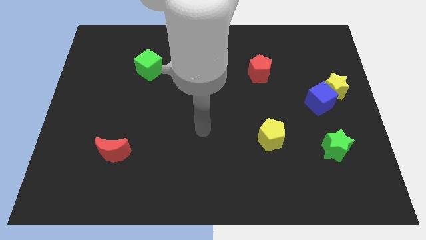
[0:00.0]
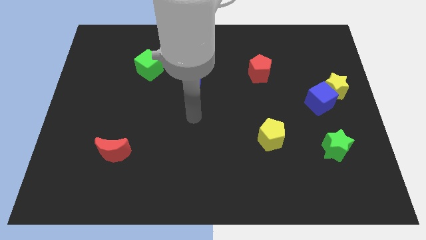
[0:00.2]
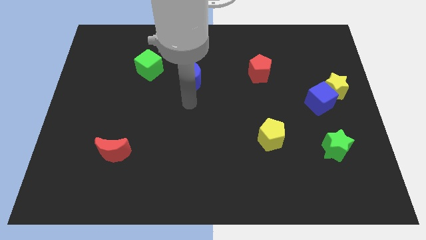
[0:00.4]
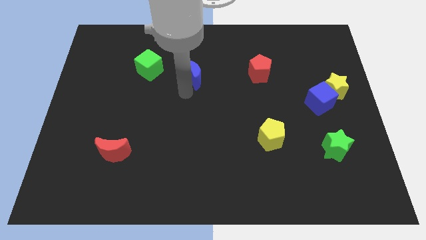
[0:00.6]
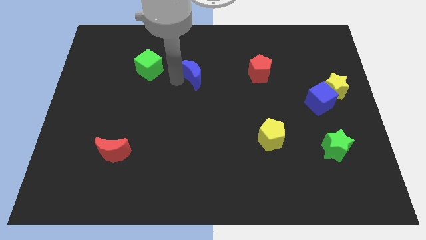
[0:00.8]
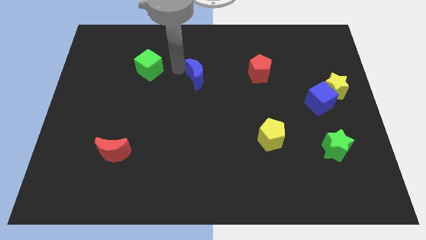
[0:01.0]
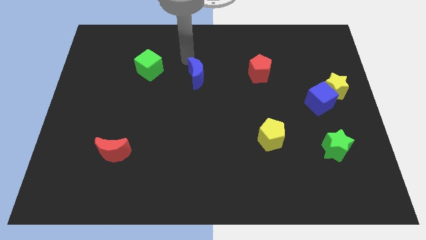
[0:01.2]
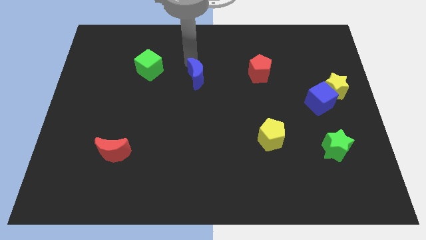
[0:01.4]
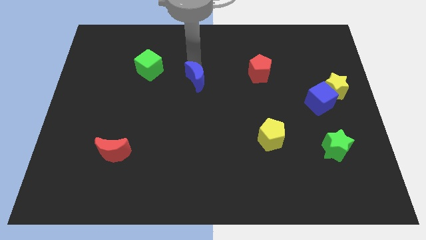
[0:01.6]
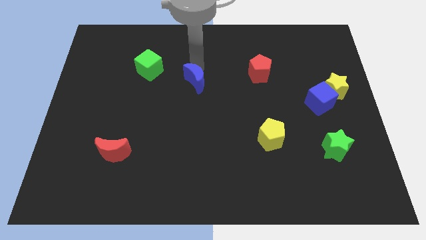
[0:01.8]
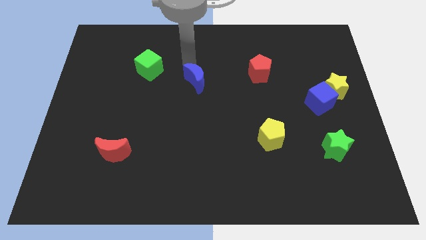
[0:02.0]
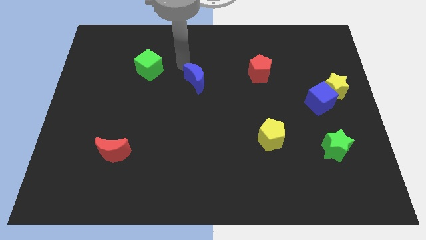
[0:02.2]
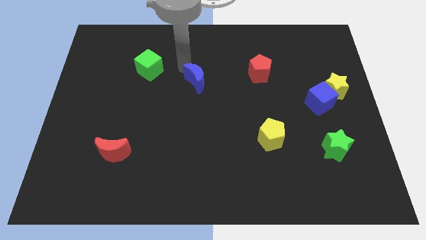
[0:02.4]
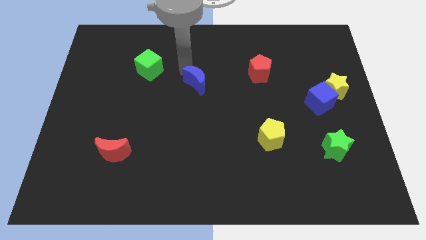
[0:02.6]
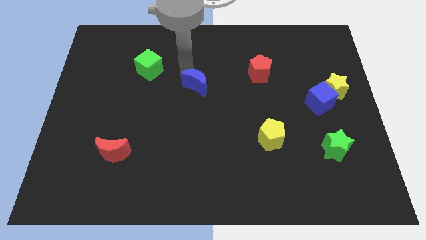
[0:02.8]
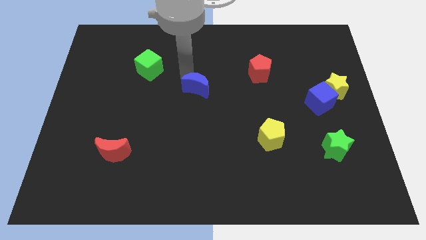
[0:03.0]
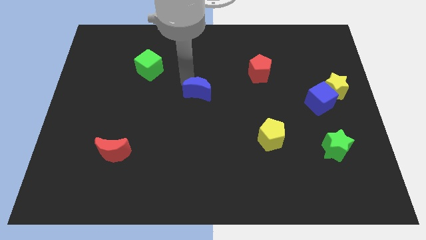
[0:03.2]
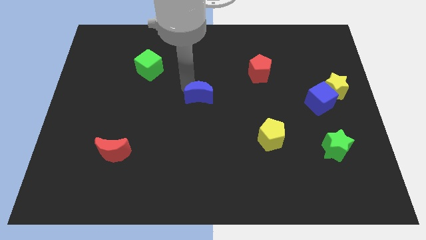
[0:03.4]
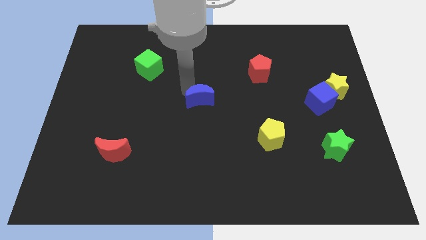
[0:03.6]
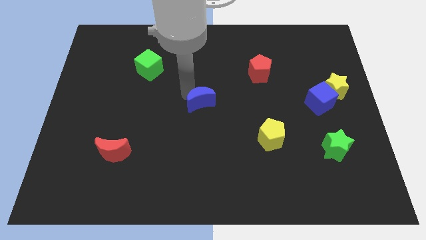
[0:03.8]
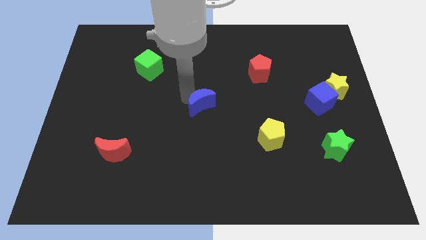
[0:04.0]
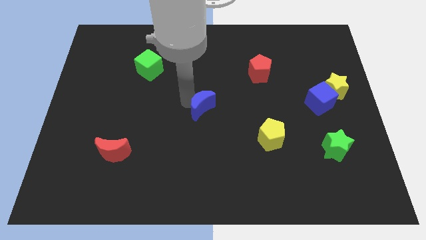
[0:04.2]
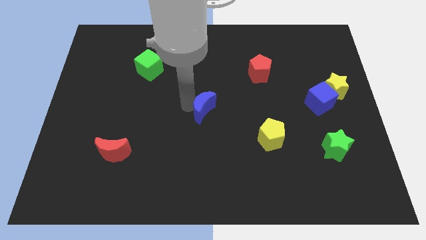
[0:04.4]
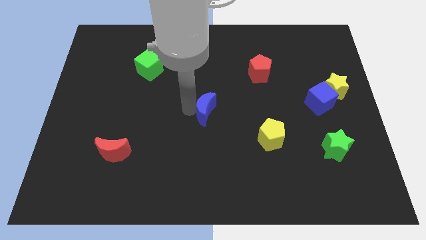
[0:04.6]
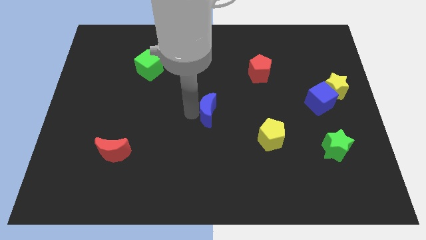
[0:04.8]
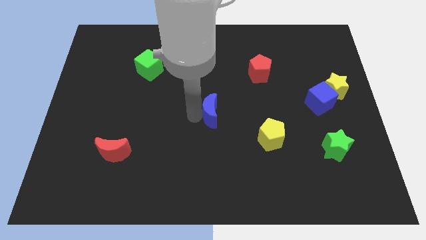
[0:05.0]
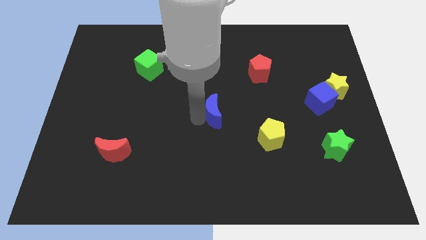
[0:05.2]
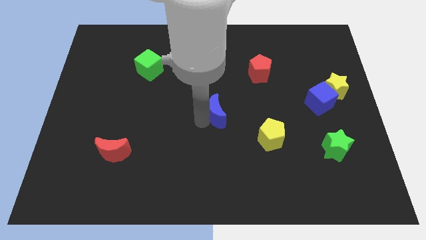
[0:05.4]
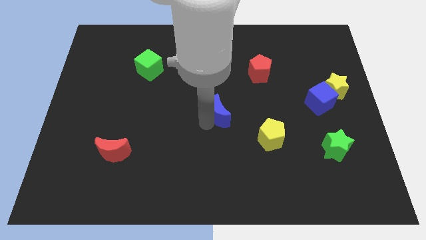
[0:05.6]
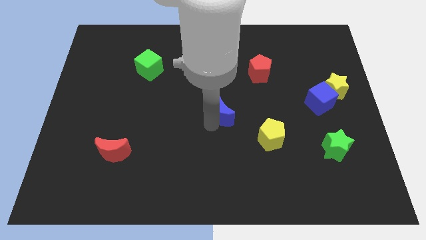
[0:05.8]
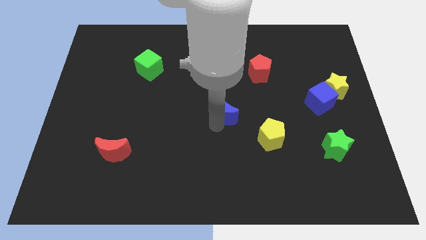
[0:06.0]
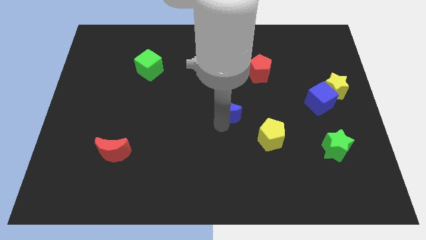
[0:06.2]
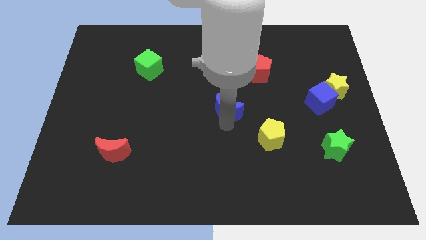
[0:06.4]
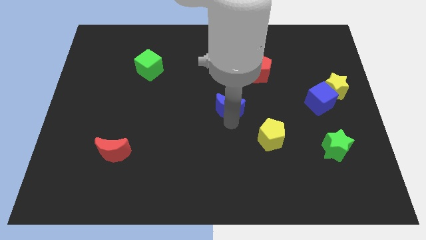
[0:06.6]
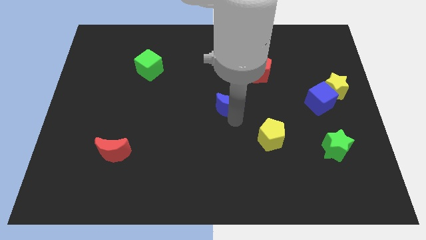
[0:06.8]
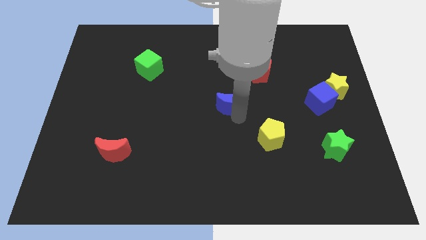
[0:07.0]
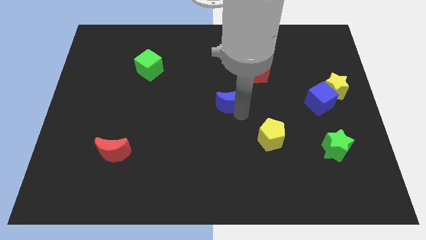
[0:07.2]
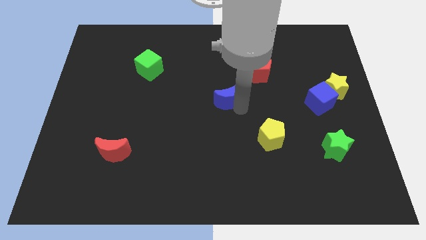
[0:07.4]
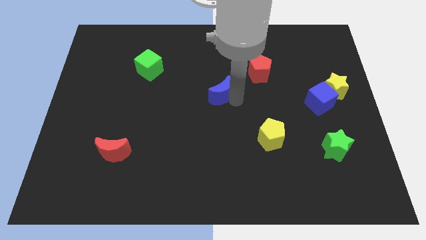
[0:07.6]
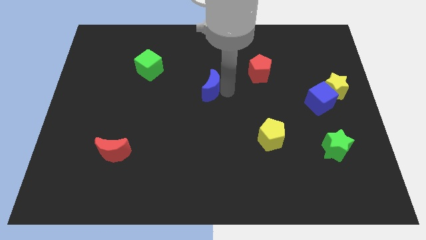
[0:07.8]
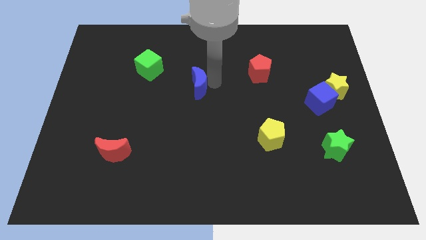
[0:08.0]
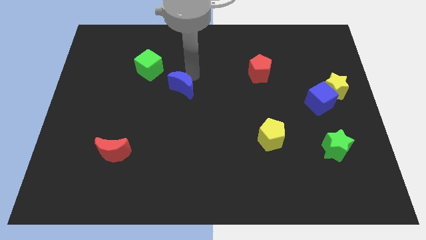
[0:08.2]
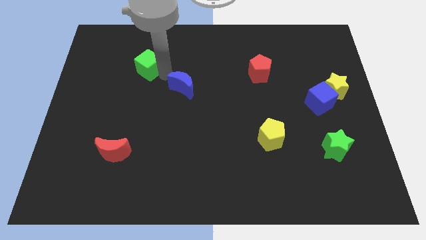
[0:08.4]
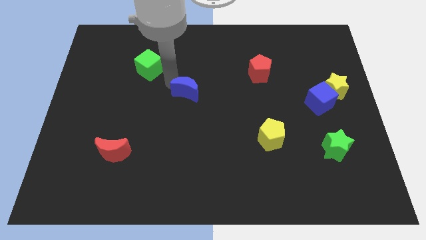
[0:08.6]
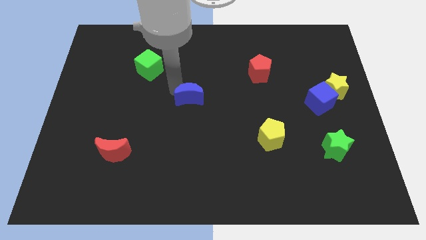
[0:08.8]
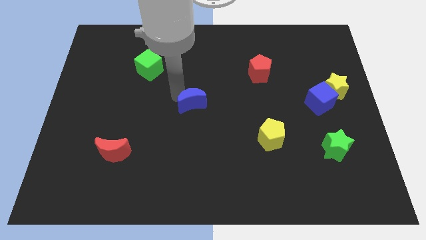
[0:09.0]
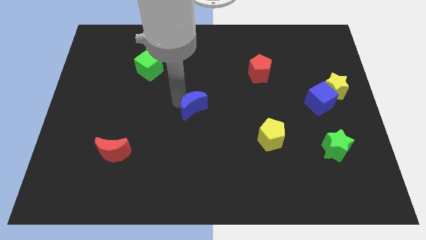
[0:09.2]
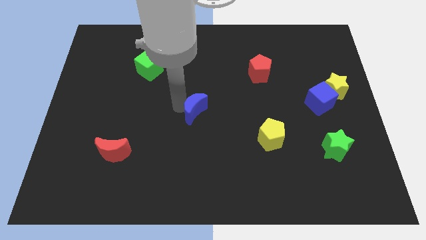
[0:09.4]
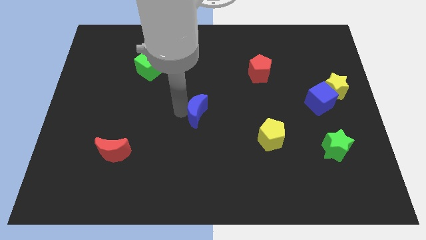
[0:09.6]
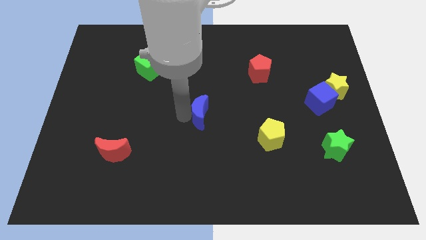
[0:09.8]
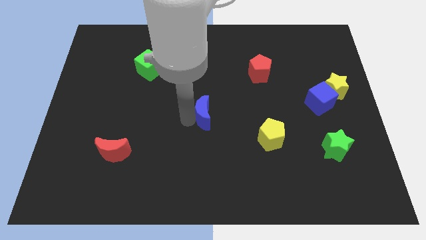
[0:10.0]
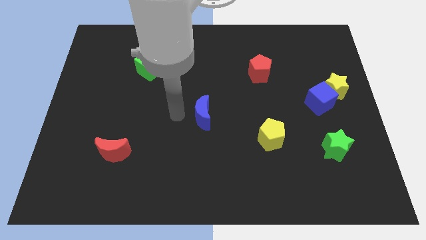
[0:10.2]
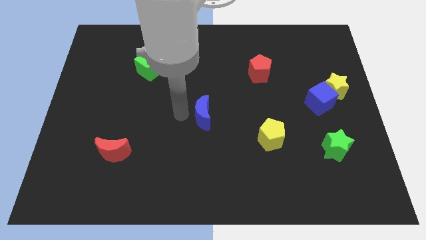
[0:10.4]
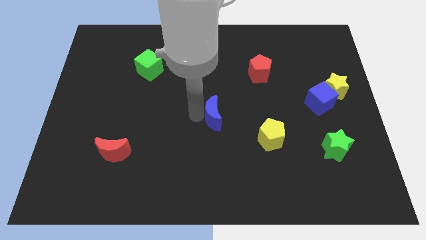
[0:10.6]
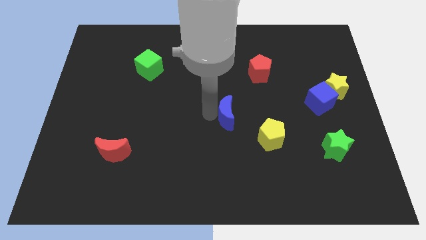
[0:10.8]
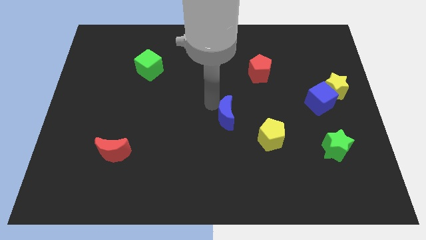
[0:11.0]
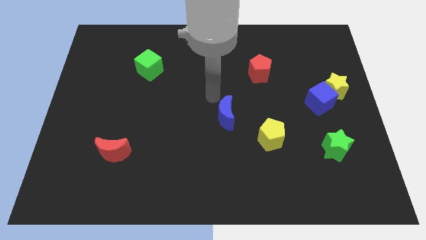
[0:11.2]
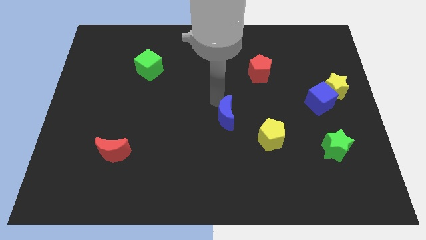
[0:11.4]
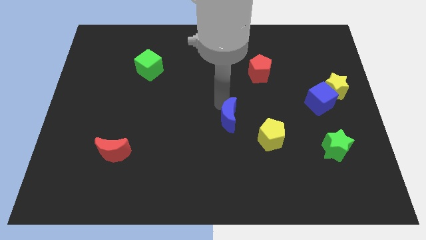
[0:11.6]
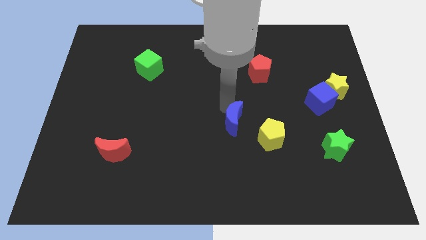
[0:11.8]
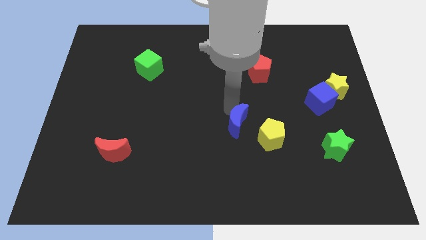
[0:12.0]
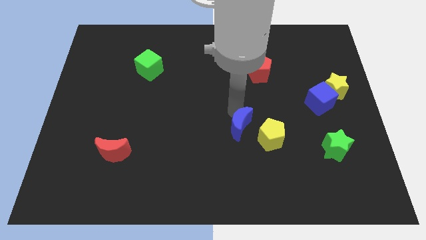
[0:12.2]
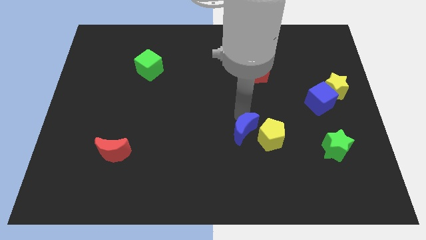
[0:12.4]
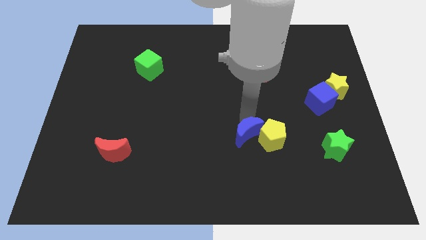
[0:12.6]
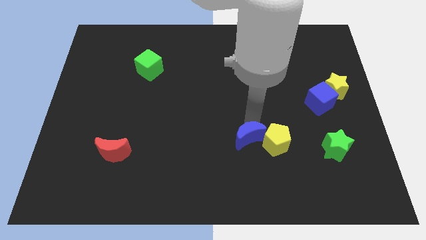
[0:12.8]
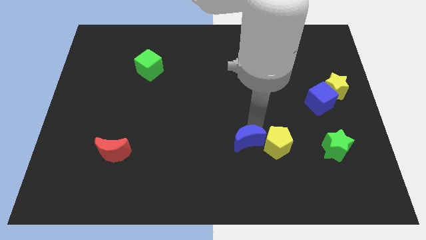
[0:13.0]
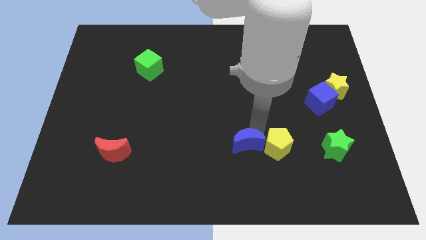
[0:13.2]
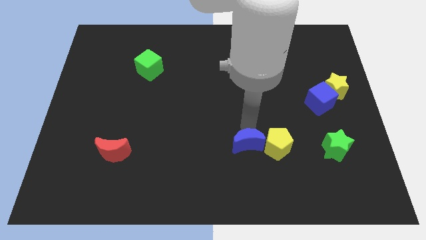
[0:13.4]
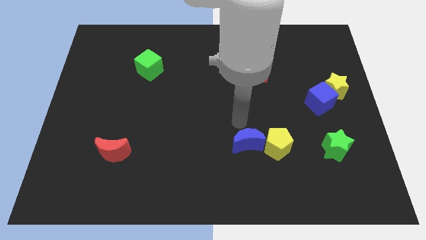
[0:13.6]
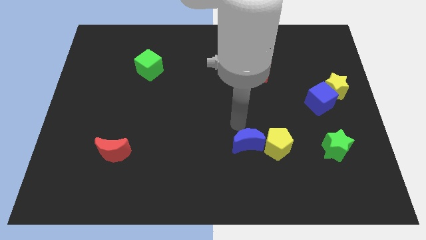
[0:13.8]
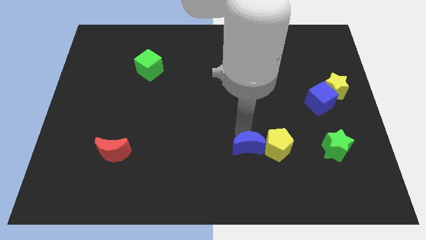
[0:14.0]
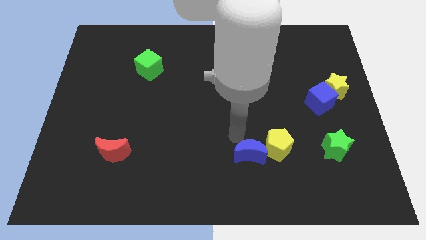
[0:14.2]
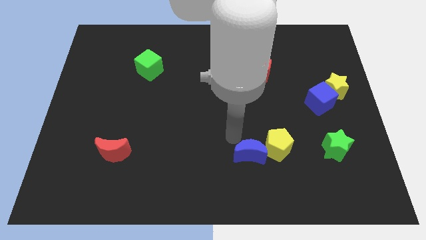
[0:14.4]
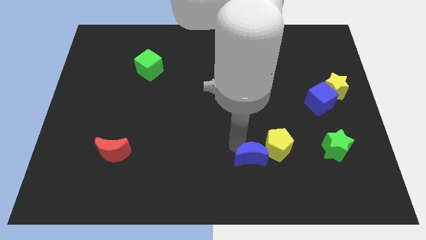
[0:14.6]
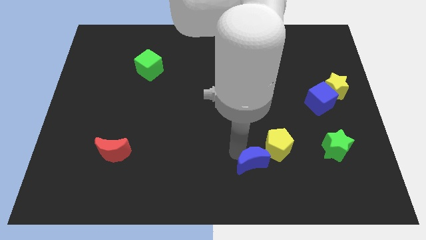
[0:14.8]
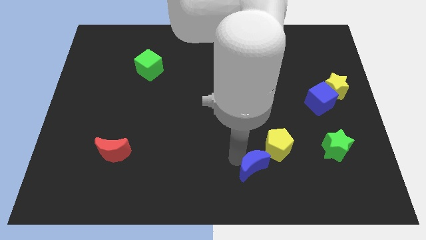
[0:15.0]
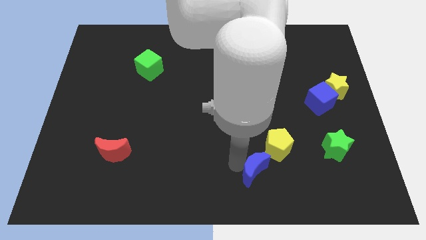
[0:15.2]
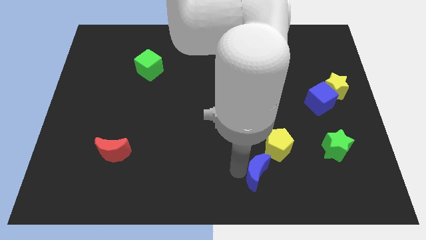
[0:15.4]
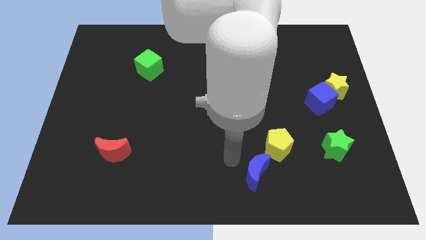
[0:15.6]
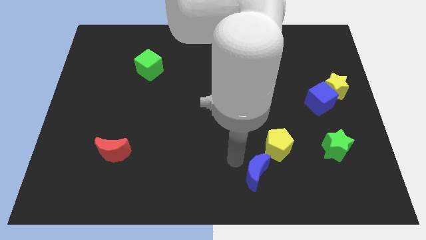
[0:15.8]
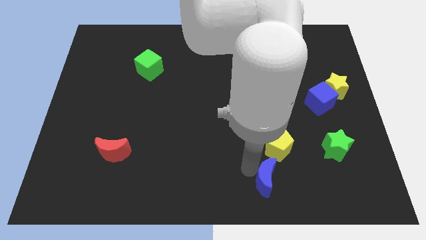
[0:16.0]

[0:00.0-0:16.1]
slide the blue moon to the bottom side of the yellow pentagon

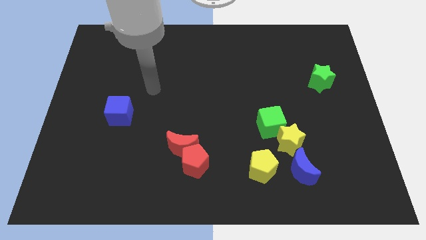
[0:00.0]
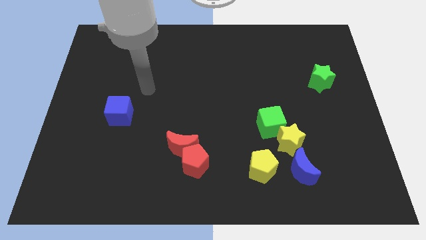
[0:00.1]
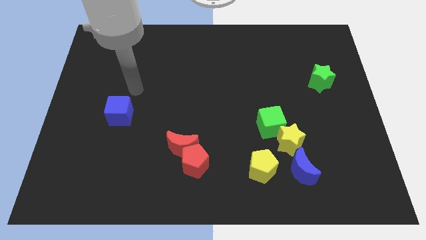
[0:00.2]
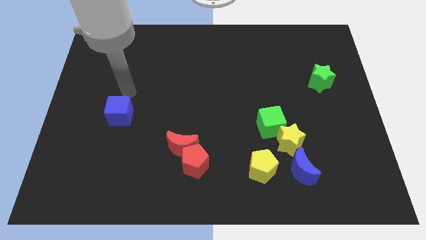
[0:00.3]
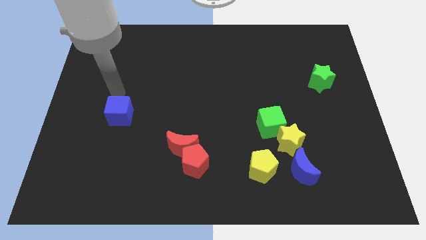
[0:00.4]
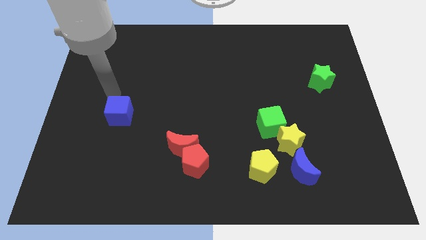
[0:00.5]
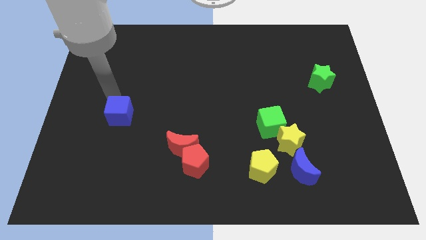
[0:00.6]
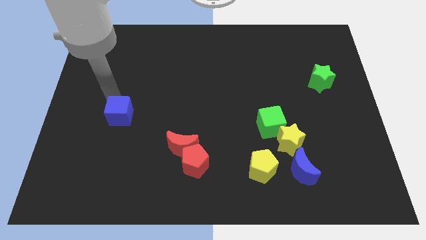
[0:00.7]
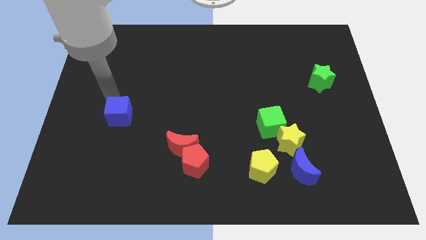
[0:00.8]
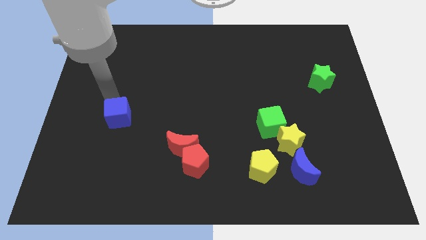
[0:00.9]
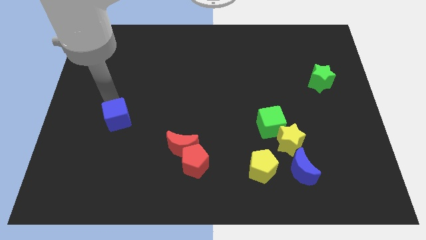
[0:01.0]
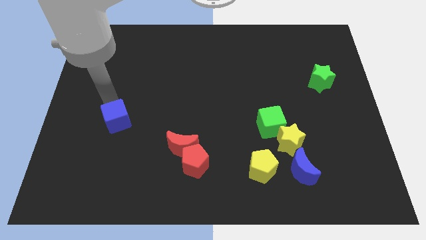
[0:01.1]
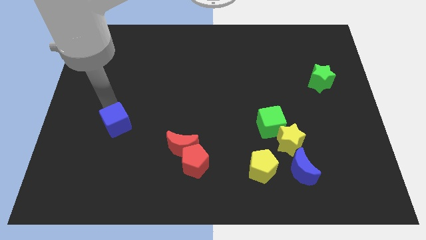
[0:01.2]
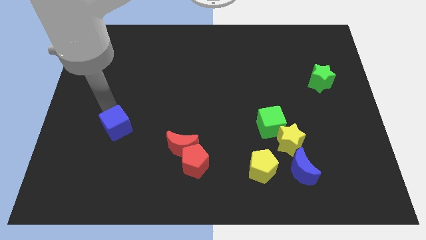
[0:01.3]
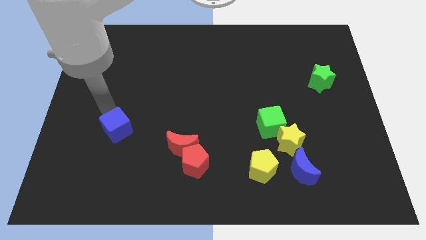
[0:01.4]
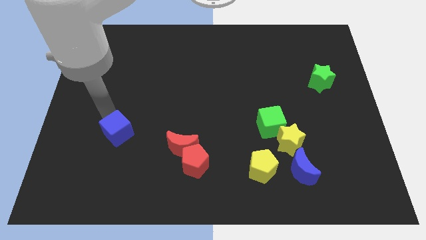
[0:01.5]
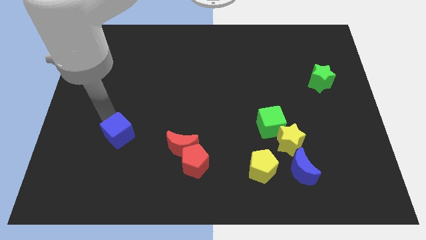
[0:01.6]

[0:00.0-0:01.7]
put the blue cube to the left of the red moon
